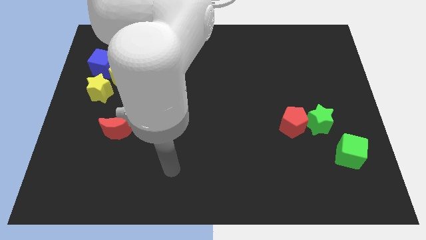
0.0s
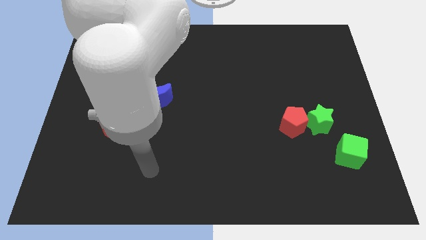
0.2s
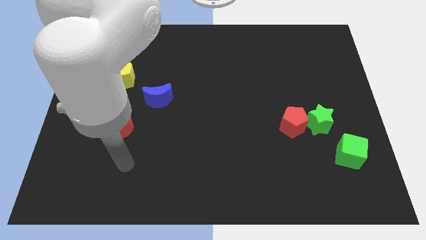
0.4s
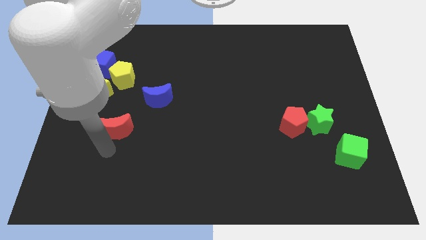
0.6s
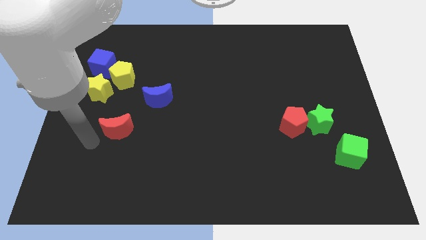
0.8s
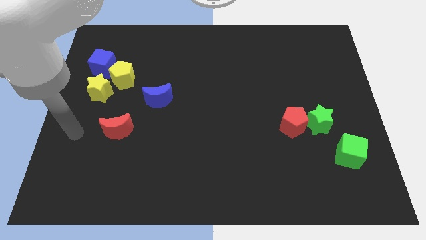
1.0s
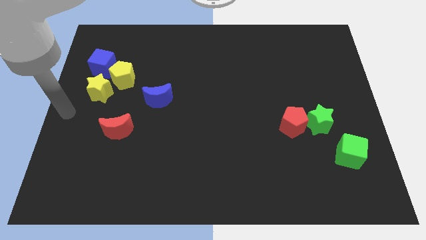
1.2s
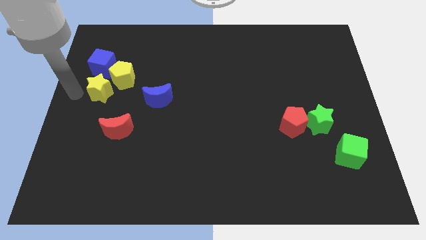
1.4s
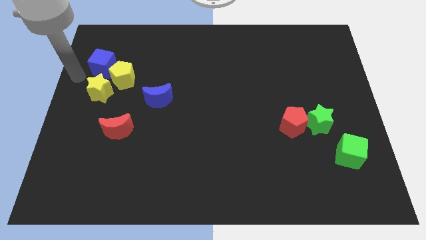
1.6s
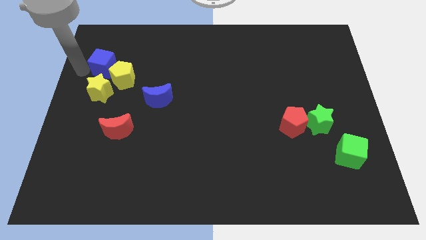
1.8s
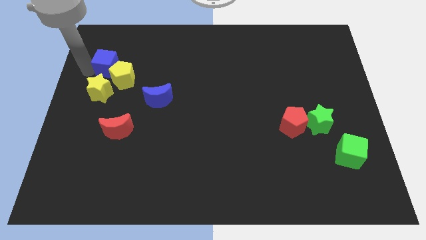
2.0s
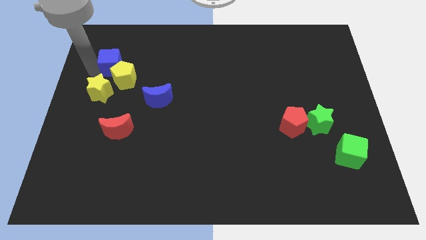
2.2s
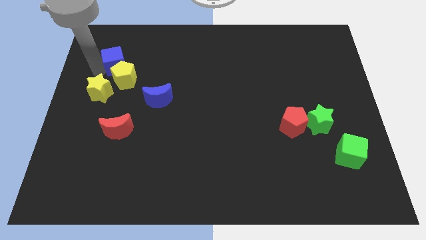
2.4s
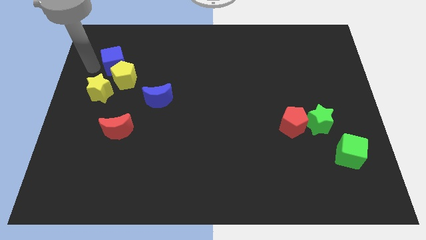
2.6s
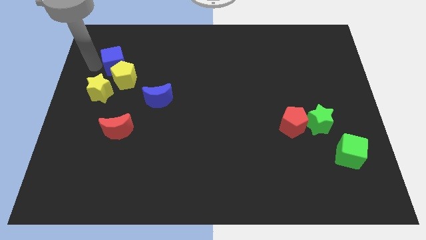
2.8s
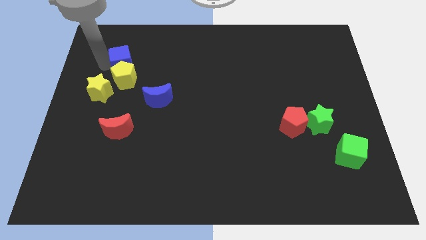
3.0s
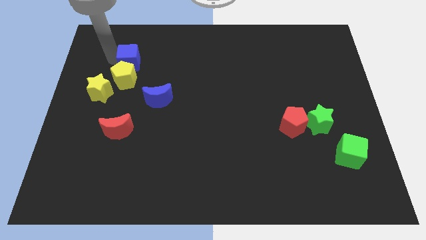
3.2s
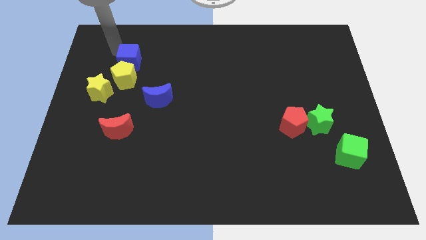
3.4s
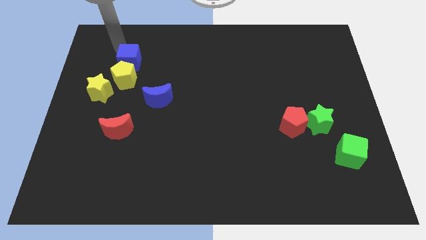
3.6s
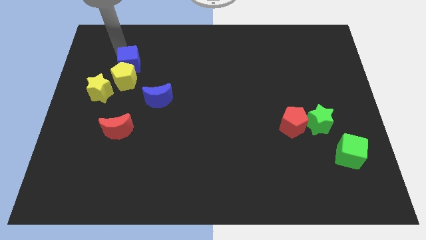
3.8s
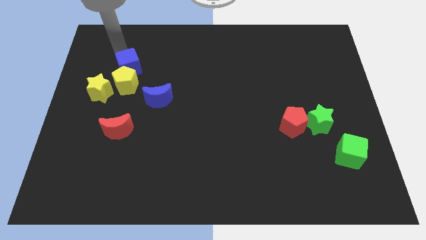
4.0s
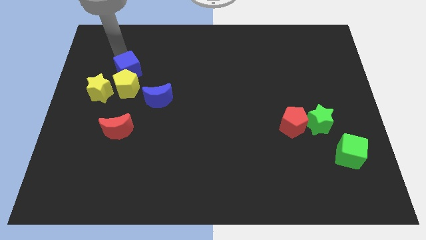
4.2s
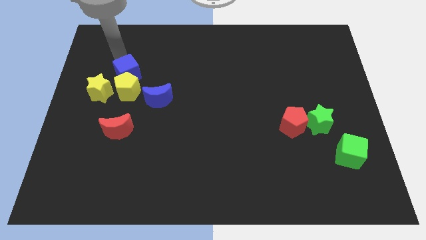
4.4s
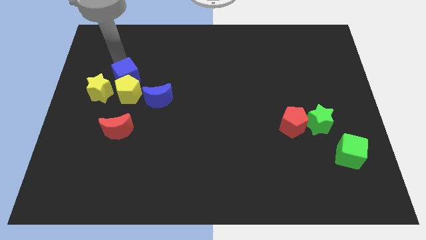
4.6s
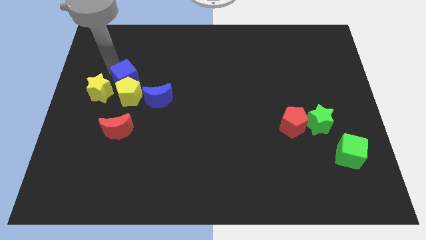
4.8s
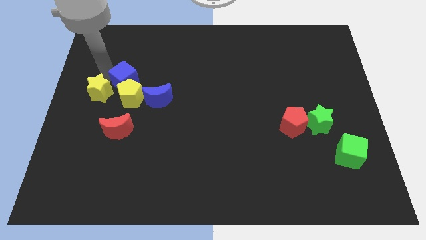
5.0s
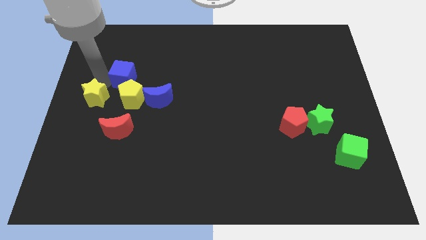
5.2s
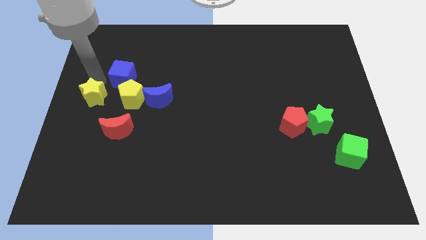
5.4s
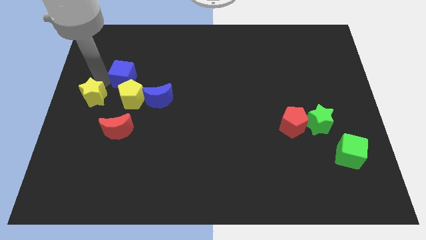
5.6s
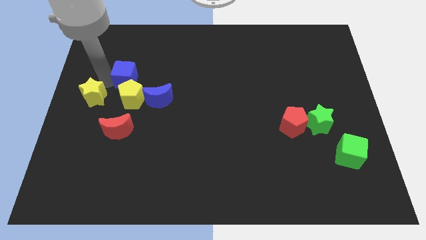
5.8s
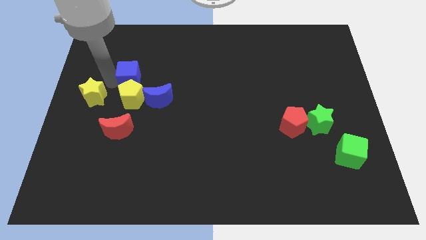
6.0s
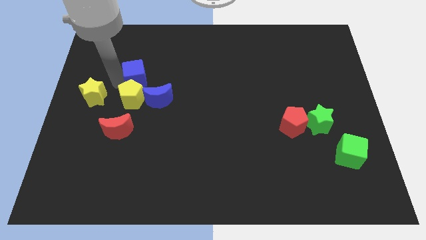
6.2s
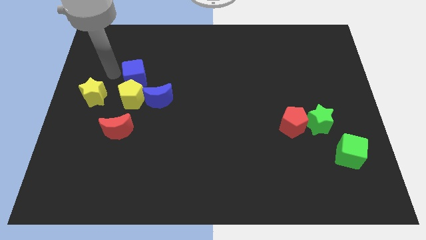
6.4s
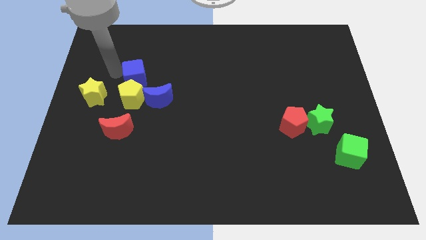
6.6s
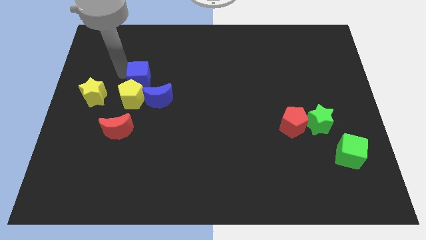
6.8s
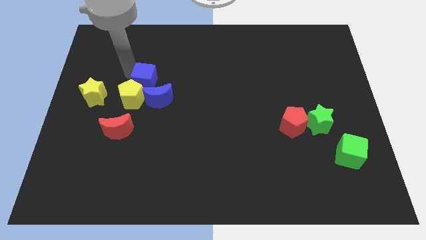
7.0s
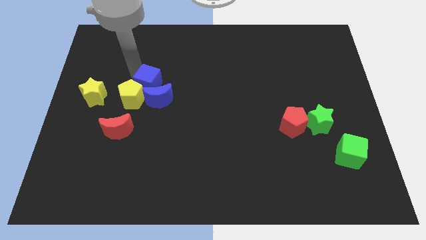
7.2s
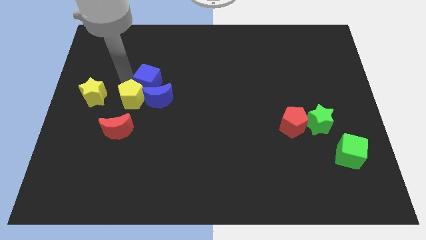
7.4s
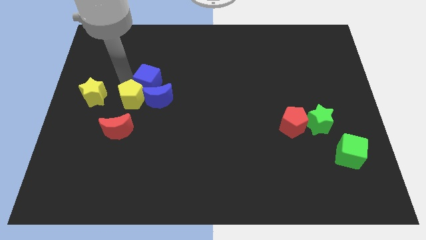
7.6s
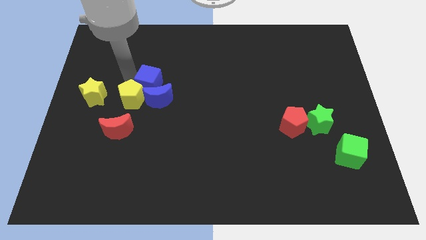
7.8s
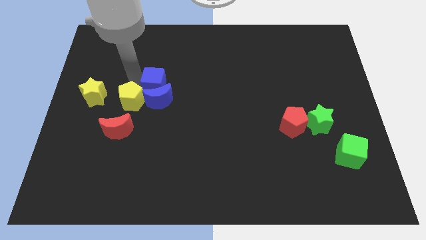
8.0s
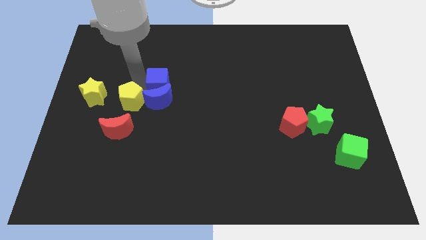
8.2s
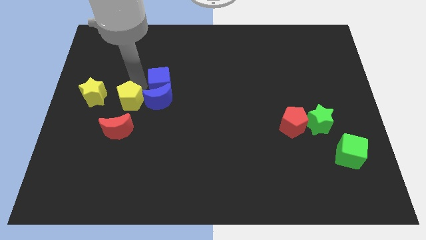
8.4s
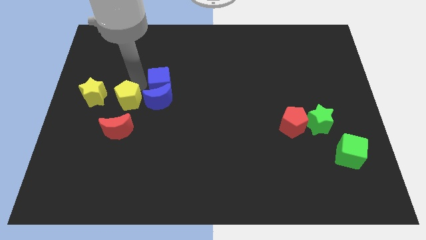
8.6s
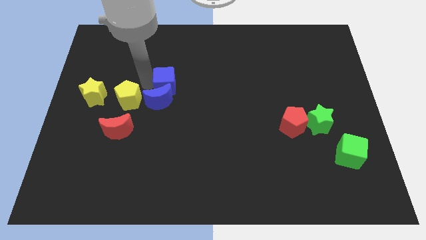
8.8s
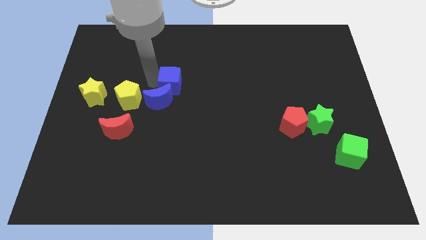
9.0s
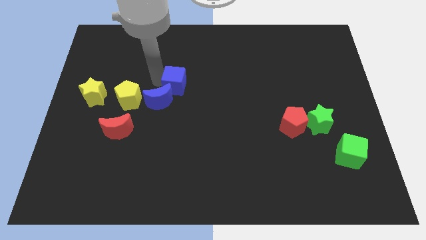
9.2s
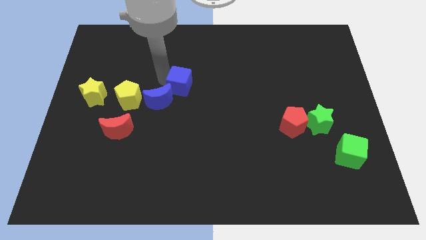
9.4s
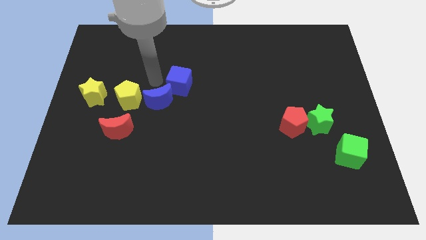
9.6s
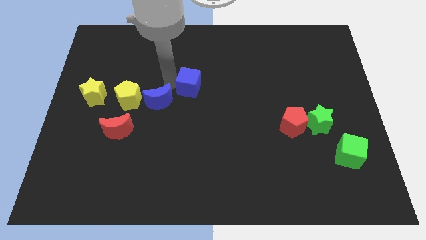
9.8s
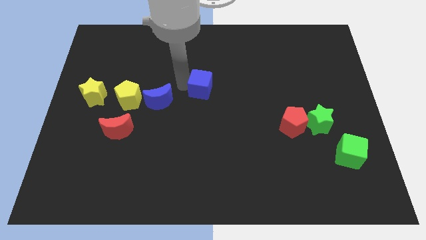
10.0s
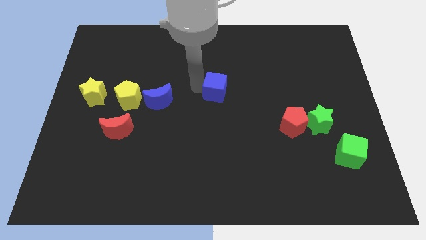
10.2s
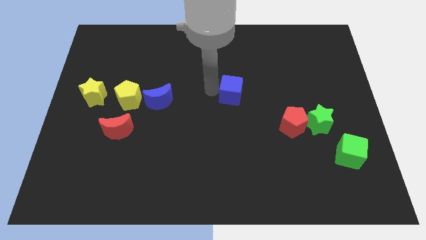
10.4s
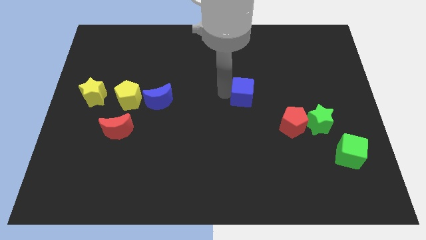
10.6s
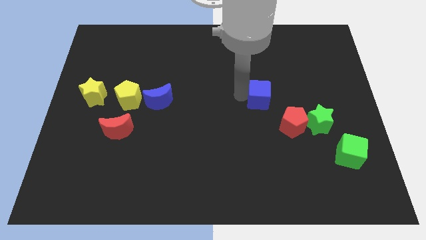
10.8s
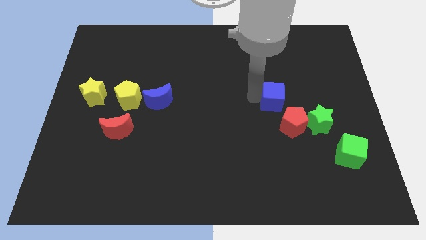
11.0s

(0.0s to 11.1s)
put the blue cube diagonally up and to the left of the green star

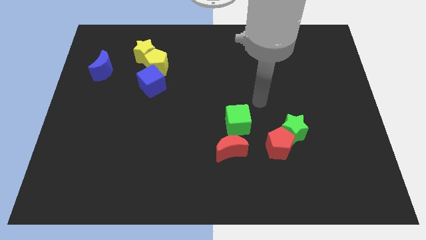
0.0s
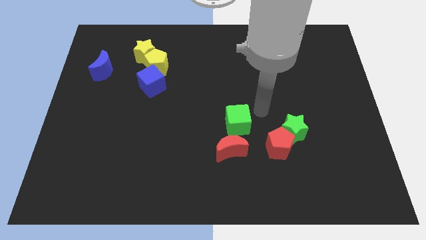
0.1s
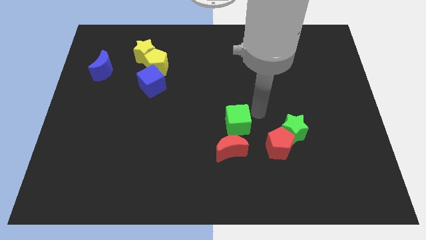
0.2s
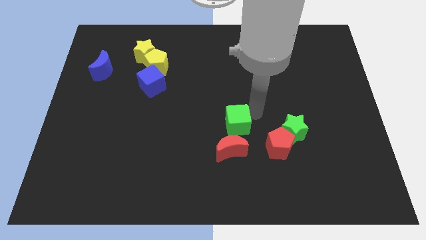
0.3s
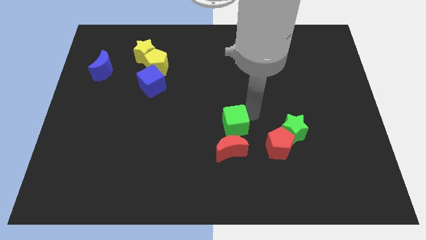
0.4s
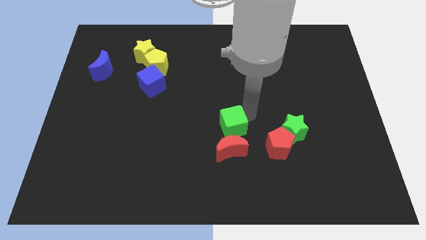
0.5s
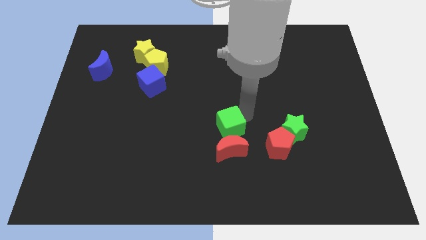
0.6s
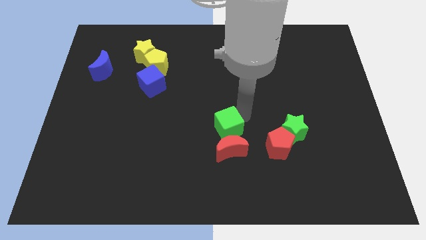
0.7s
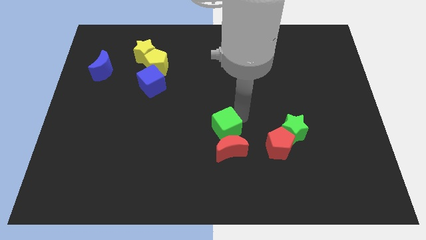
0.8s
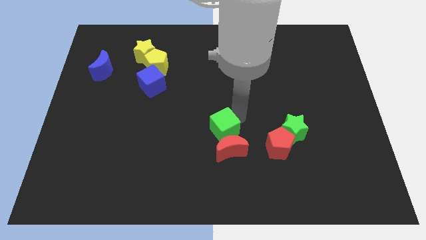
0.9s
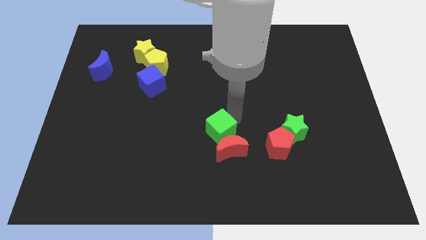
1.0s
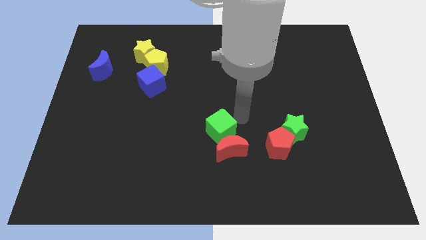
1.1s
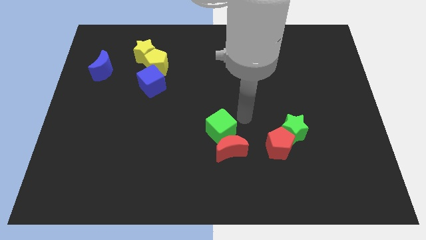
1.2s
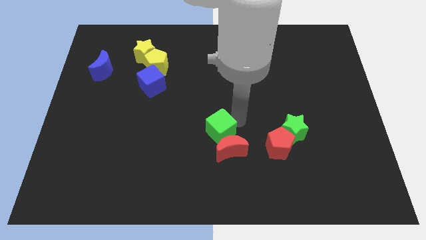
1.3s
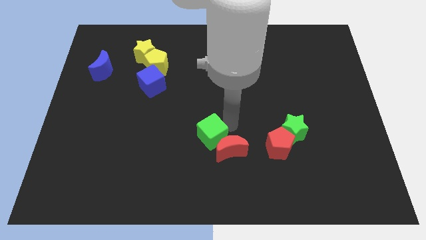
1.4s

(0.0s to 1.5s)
put the green cube left of the red moon

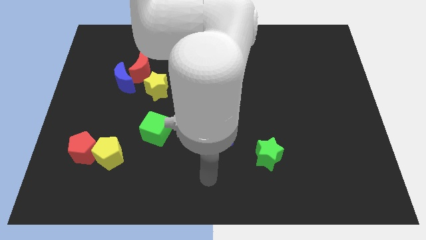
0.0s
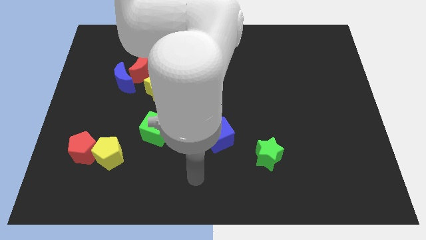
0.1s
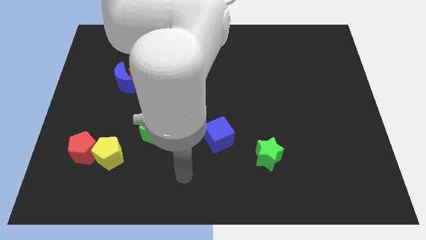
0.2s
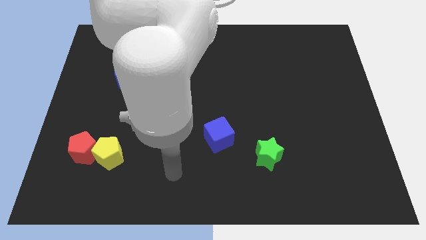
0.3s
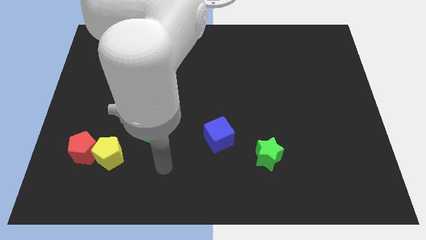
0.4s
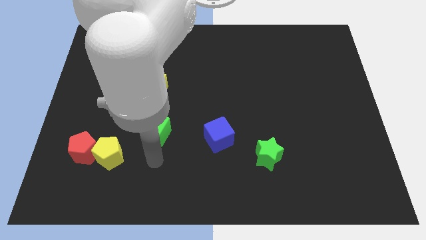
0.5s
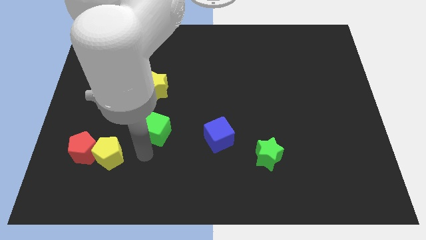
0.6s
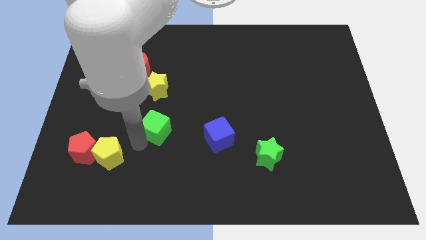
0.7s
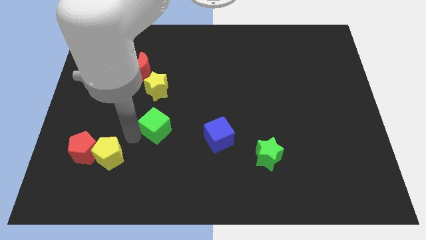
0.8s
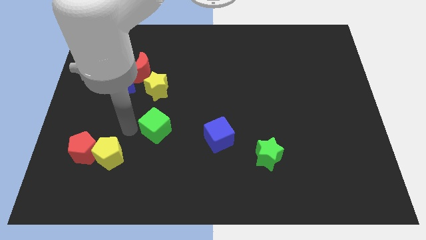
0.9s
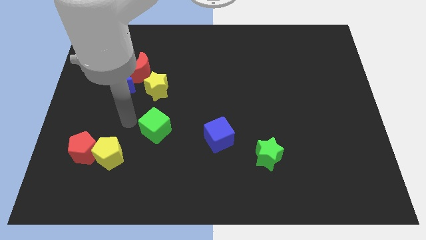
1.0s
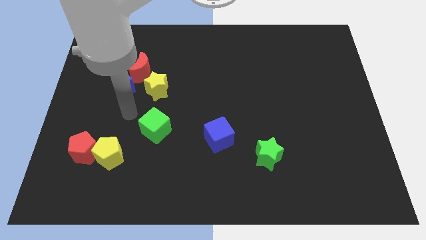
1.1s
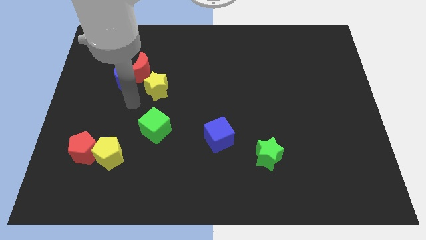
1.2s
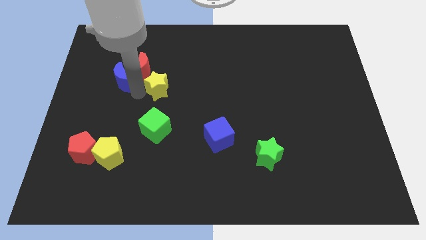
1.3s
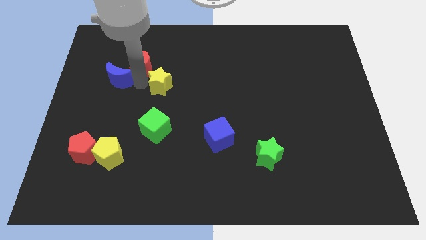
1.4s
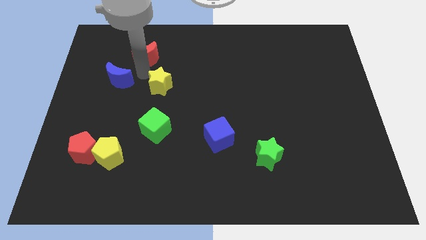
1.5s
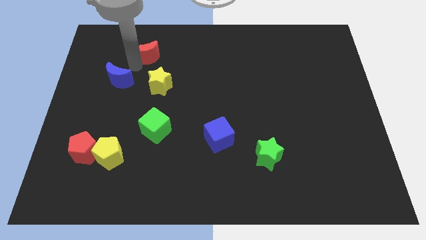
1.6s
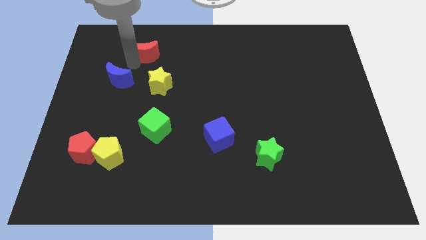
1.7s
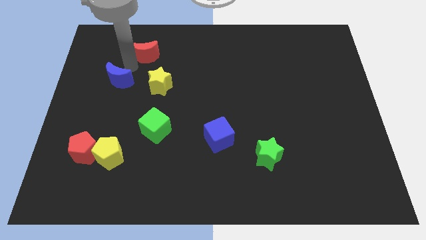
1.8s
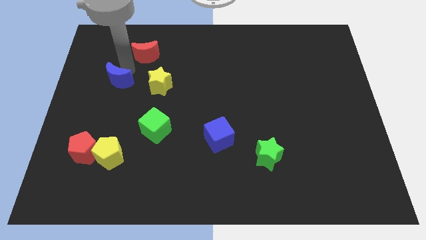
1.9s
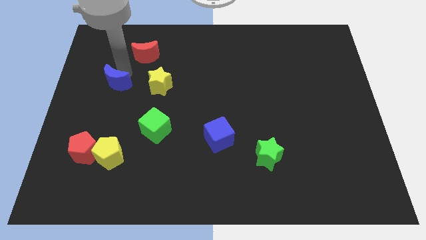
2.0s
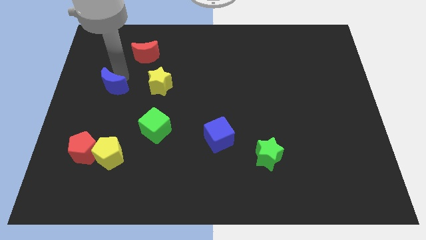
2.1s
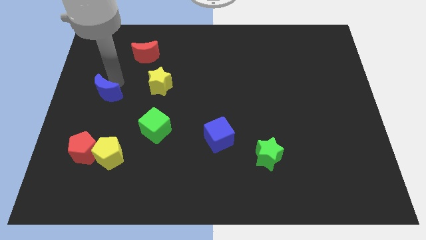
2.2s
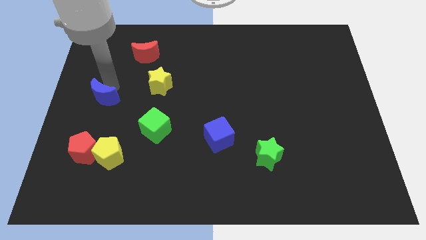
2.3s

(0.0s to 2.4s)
move the blue moon to the top of the red pentagon
